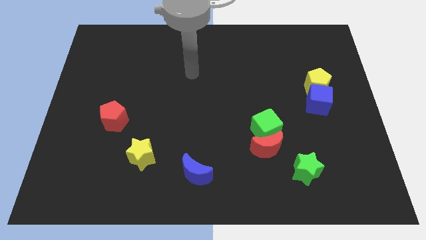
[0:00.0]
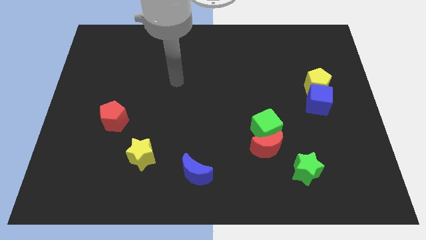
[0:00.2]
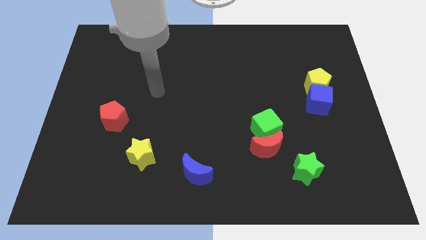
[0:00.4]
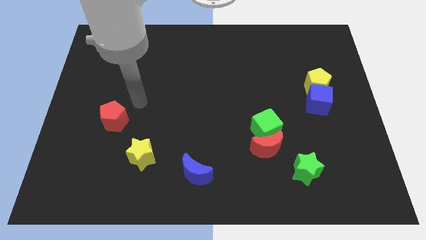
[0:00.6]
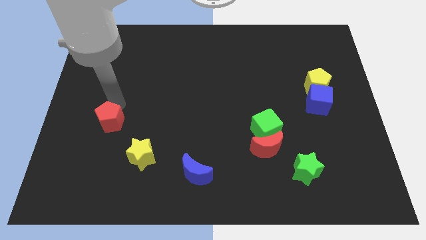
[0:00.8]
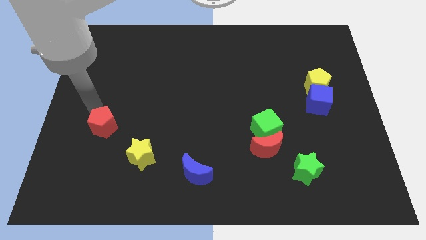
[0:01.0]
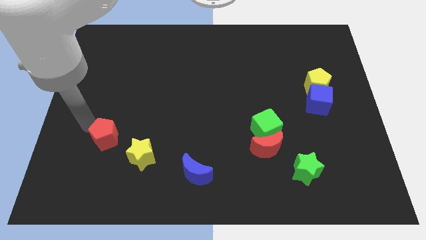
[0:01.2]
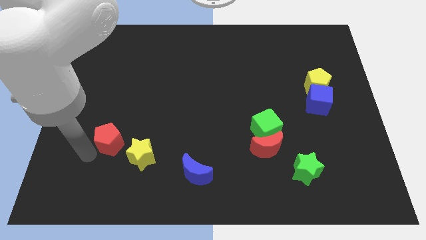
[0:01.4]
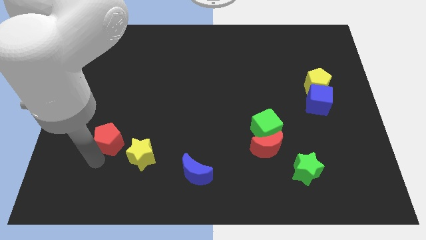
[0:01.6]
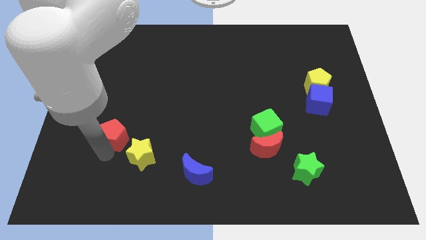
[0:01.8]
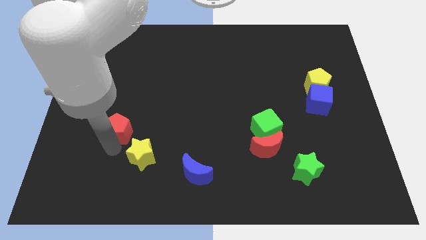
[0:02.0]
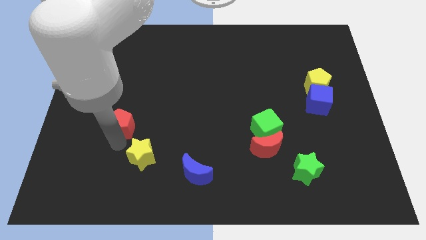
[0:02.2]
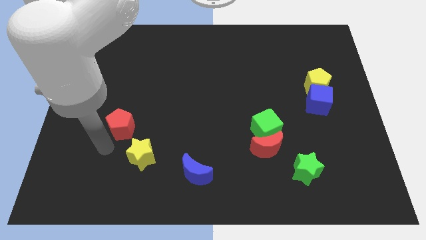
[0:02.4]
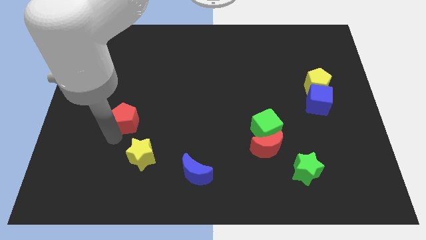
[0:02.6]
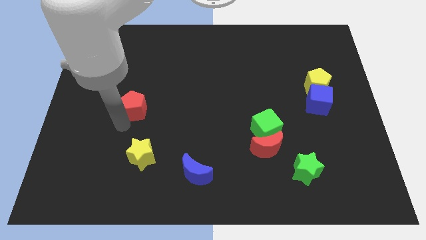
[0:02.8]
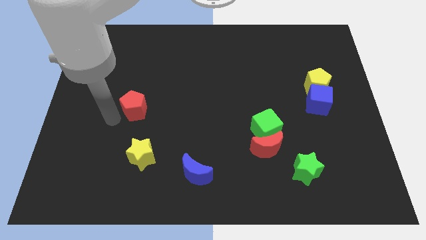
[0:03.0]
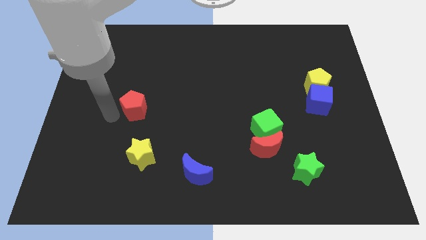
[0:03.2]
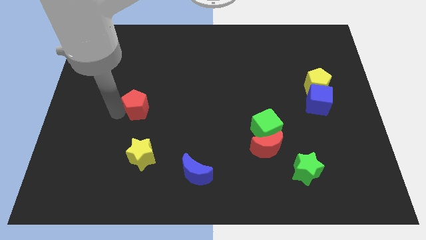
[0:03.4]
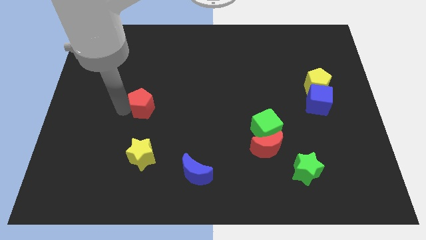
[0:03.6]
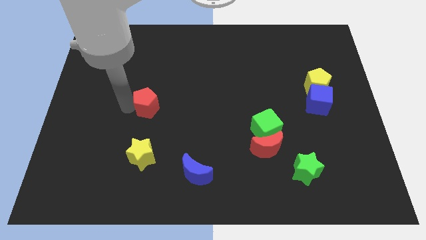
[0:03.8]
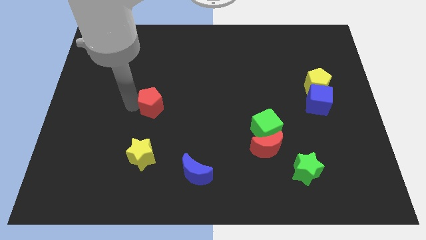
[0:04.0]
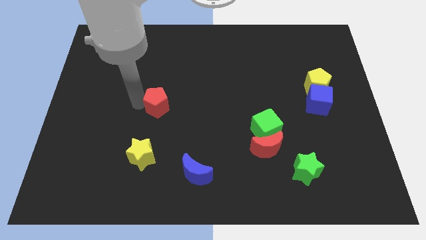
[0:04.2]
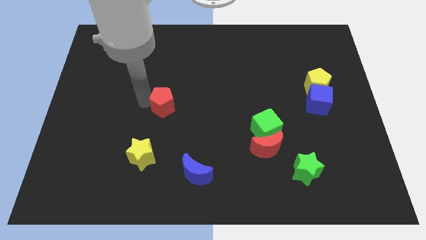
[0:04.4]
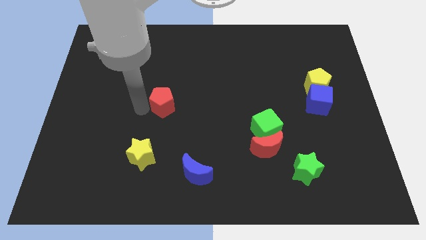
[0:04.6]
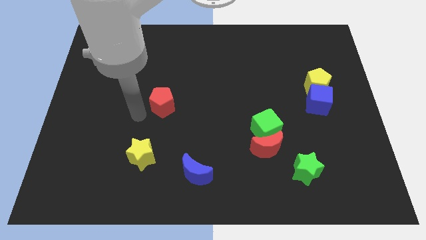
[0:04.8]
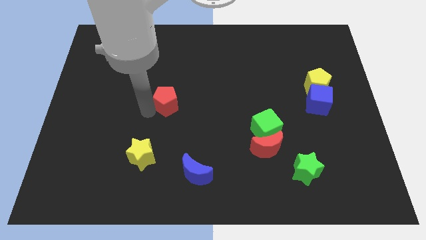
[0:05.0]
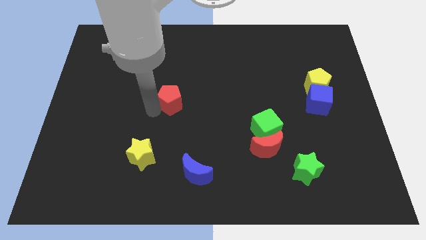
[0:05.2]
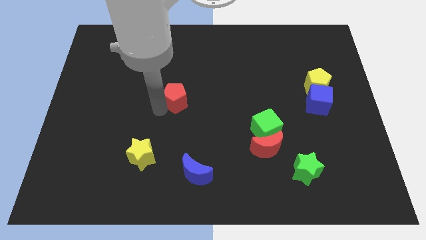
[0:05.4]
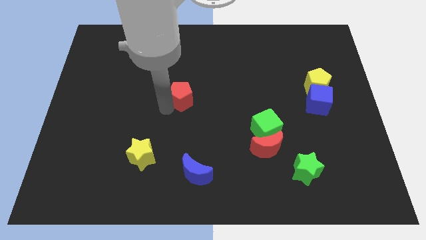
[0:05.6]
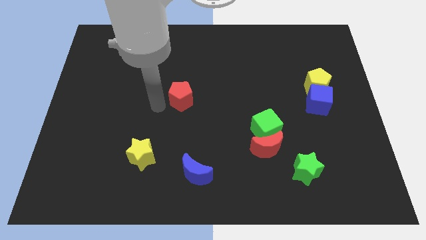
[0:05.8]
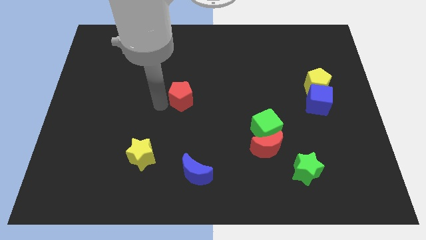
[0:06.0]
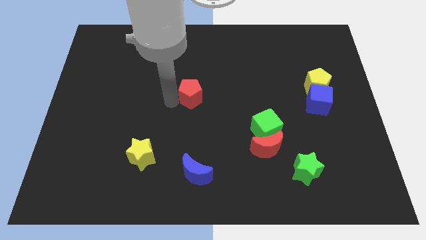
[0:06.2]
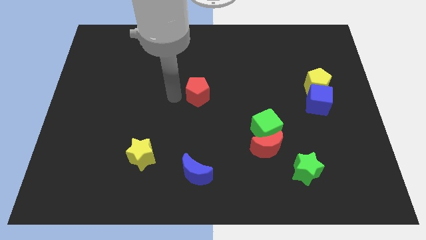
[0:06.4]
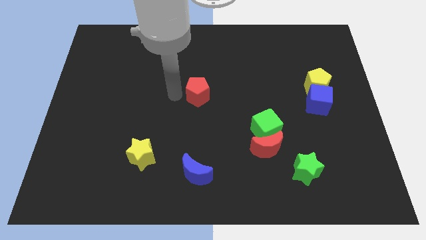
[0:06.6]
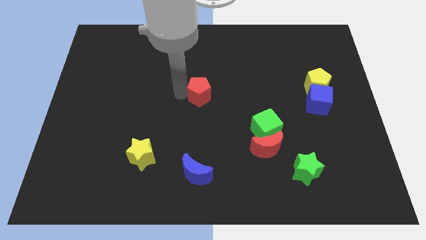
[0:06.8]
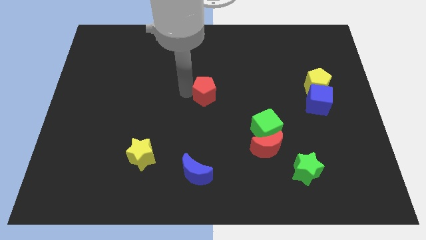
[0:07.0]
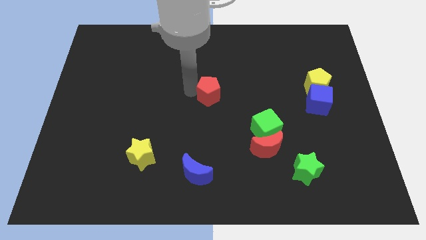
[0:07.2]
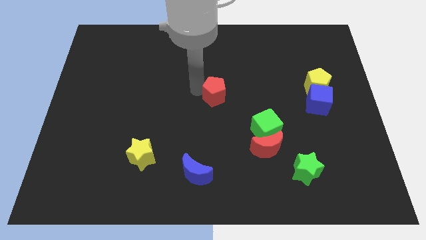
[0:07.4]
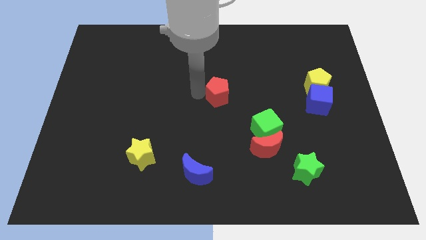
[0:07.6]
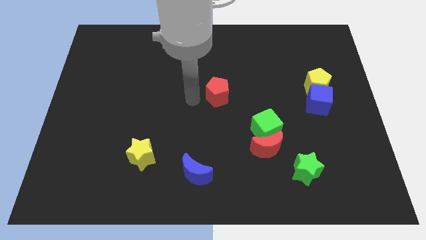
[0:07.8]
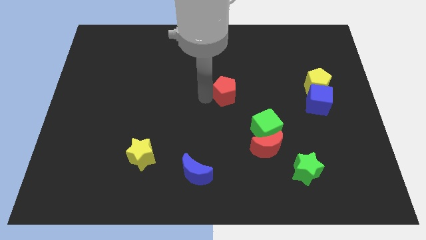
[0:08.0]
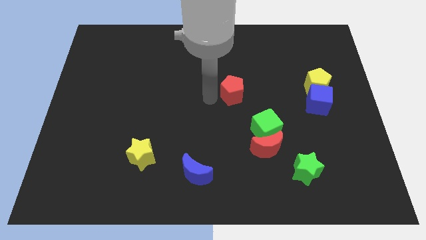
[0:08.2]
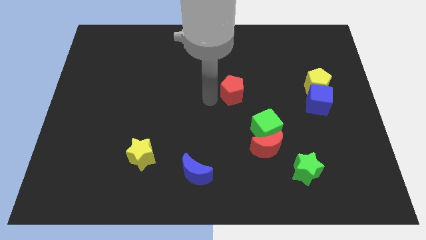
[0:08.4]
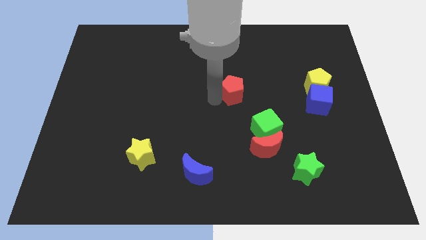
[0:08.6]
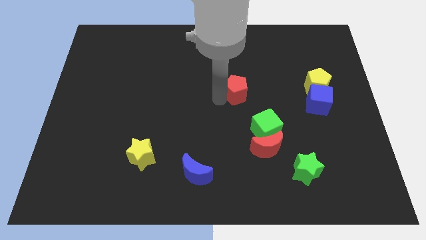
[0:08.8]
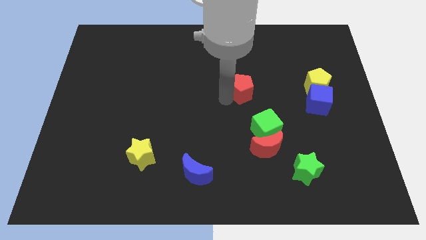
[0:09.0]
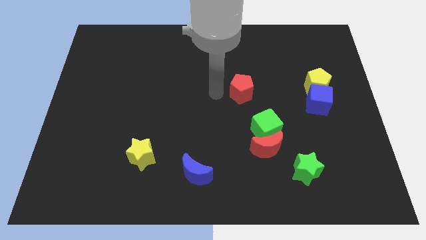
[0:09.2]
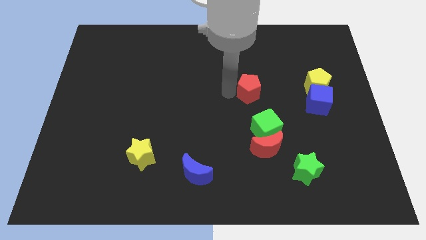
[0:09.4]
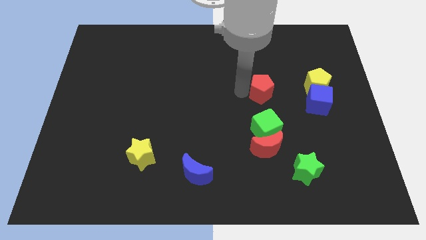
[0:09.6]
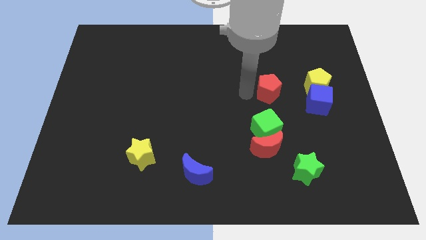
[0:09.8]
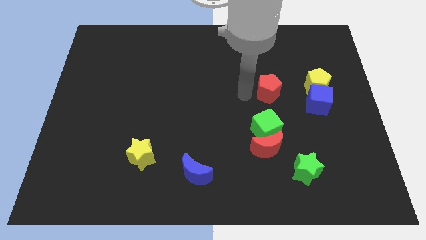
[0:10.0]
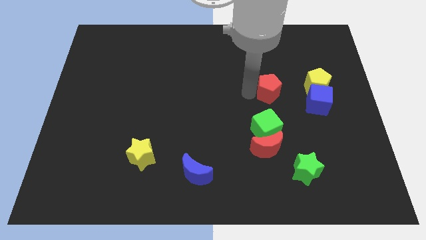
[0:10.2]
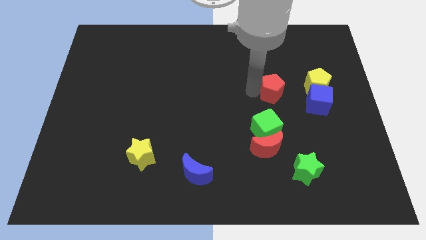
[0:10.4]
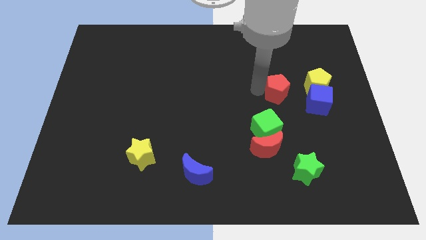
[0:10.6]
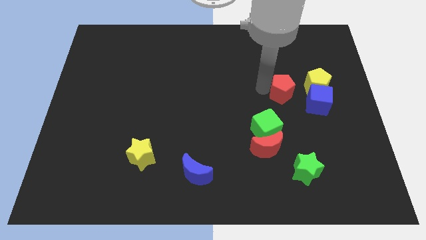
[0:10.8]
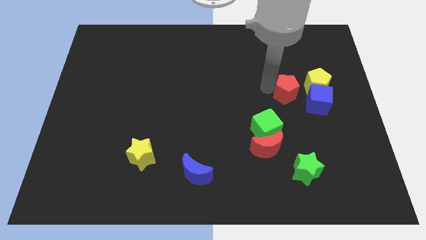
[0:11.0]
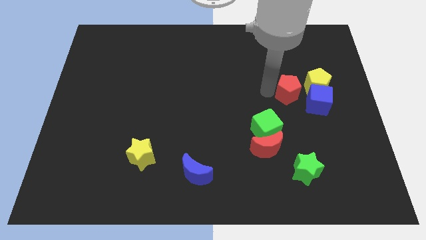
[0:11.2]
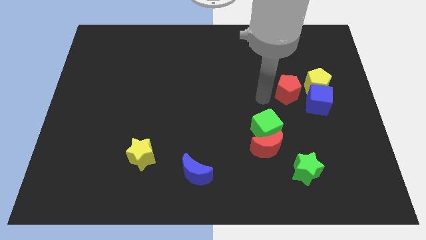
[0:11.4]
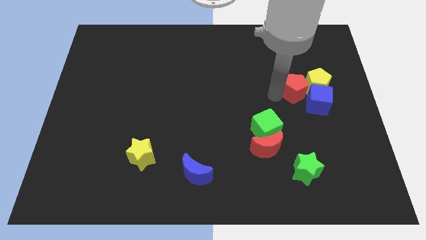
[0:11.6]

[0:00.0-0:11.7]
slide the red pentagon towards the yellow pentagon

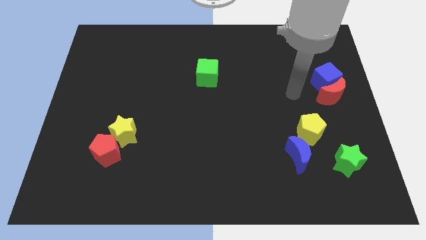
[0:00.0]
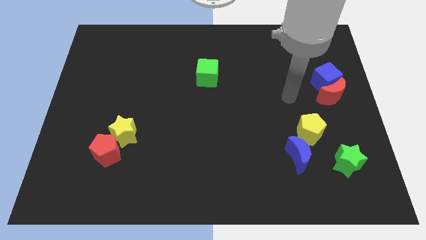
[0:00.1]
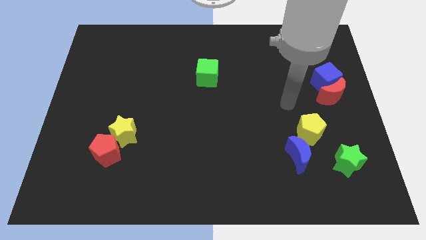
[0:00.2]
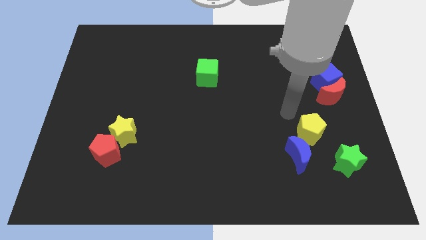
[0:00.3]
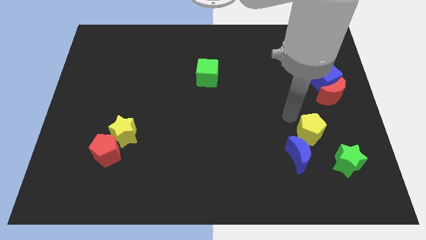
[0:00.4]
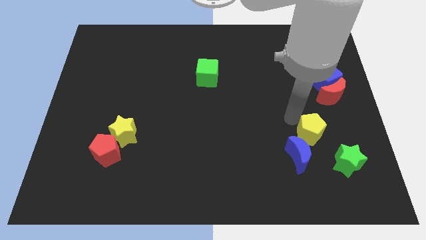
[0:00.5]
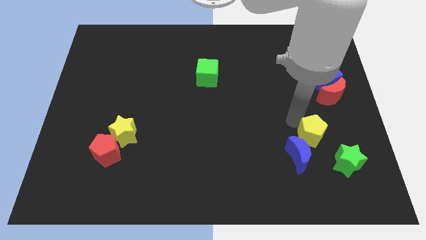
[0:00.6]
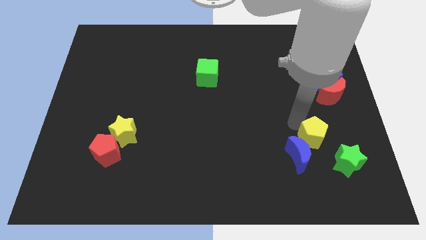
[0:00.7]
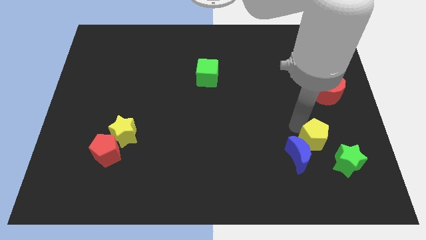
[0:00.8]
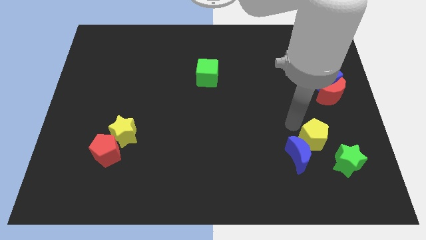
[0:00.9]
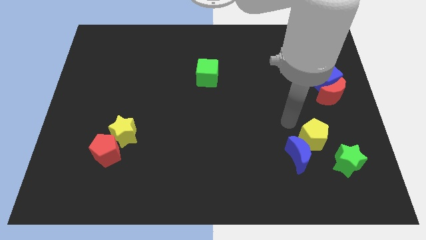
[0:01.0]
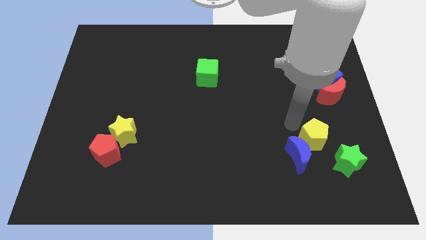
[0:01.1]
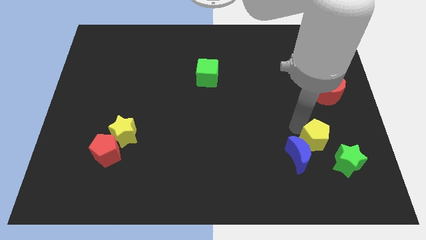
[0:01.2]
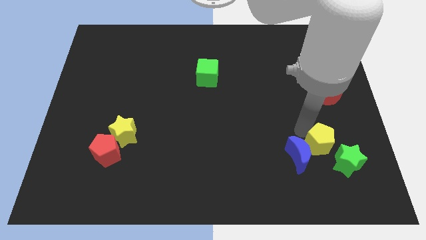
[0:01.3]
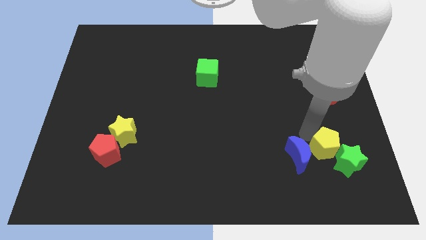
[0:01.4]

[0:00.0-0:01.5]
move the yellow pentagon to the green star
